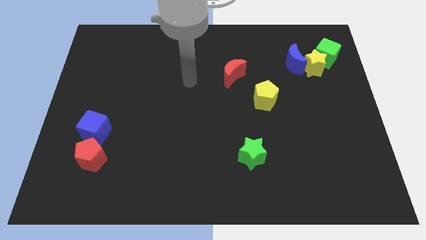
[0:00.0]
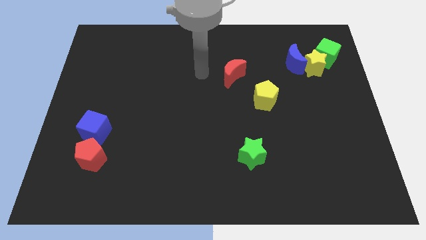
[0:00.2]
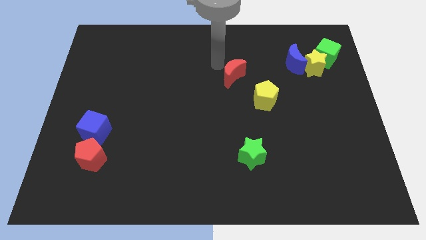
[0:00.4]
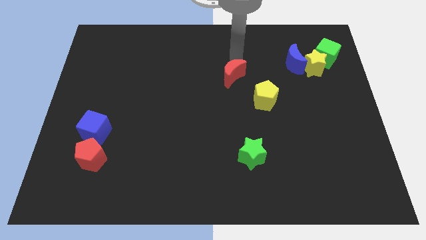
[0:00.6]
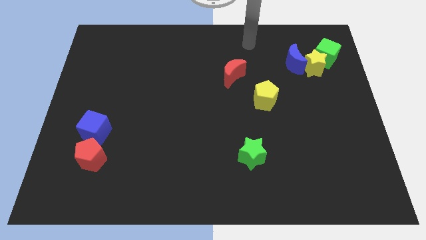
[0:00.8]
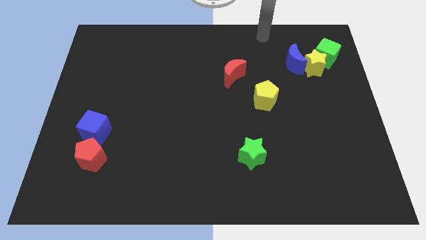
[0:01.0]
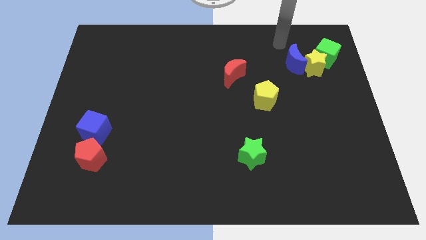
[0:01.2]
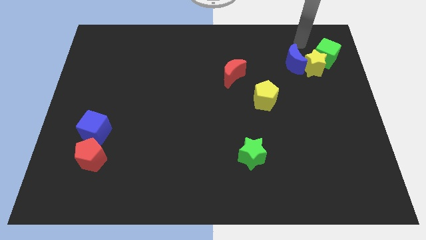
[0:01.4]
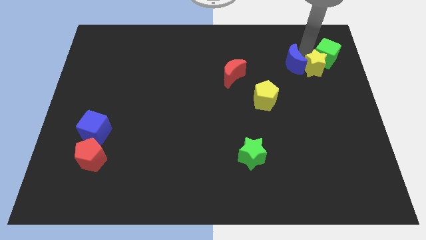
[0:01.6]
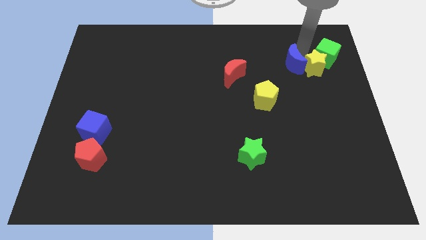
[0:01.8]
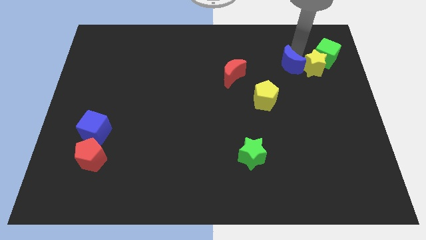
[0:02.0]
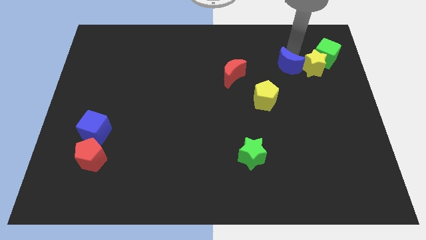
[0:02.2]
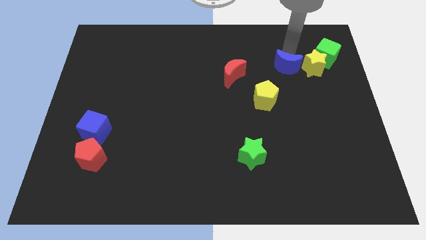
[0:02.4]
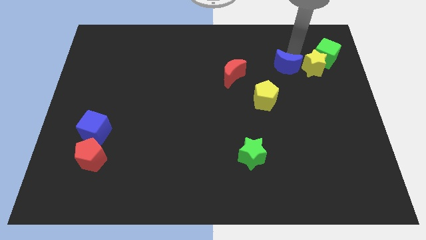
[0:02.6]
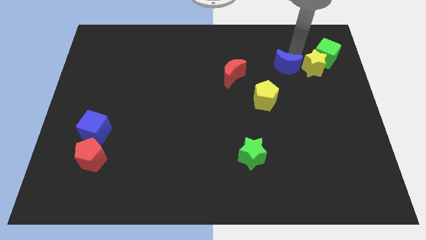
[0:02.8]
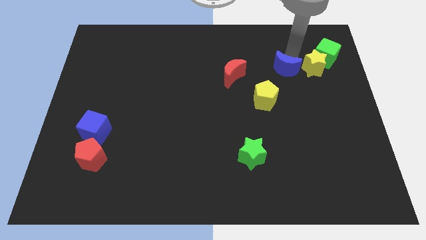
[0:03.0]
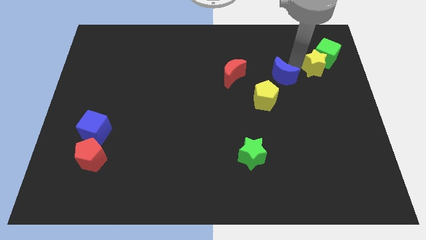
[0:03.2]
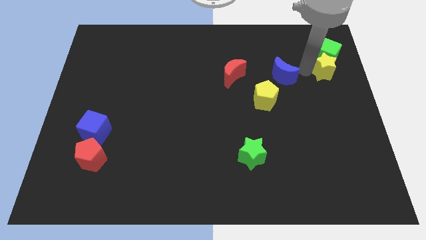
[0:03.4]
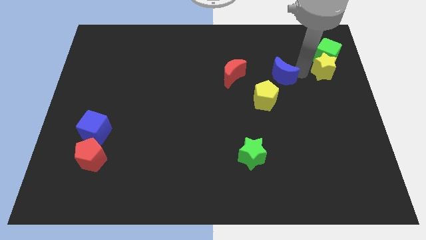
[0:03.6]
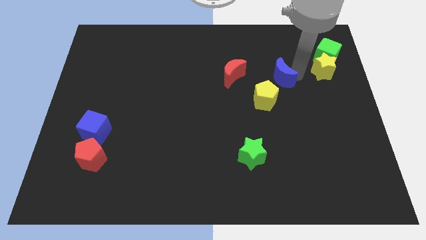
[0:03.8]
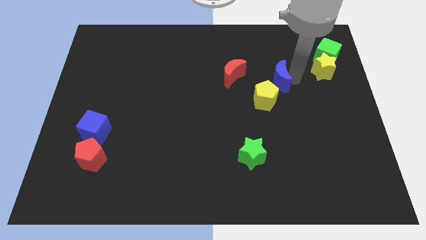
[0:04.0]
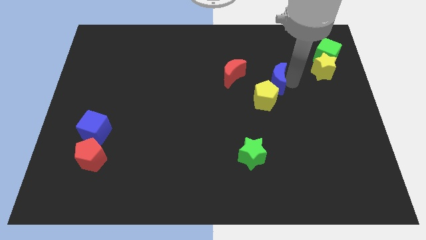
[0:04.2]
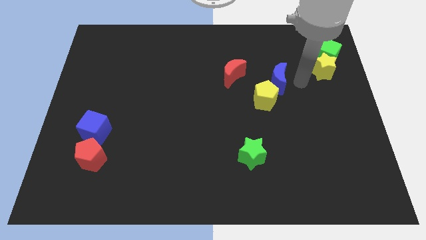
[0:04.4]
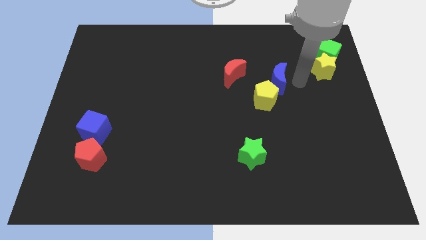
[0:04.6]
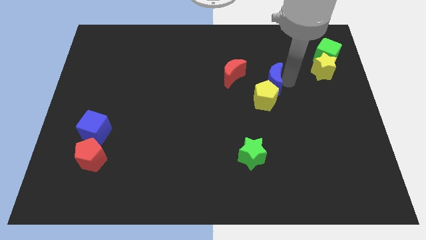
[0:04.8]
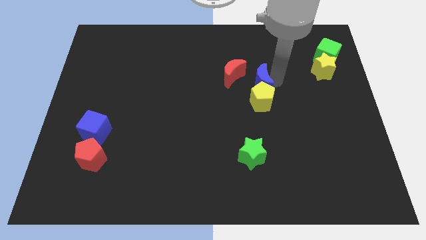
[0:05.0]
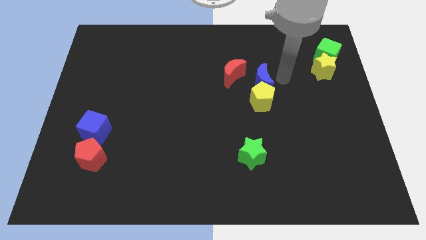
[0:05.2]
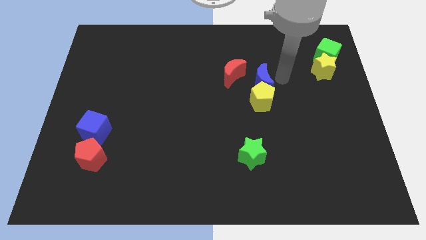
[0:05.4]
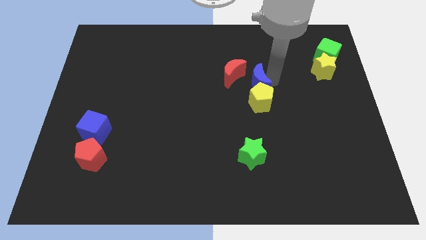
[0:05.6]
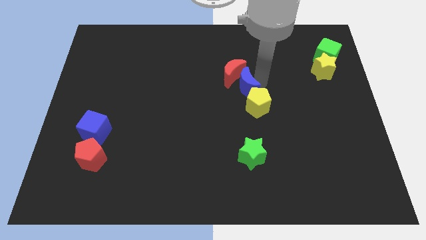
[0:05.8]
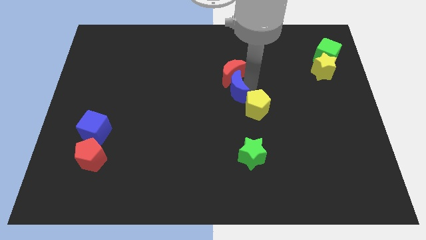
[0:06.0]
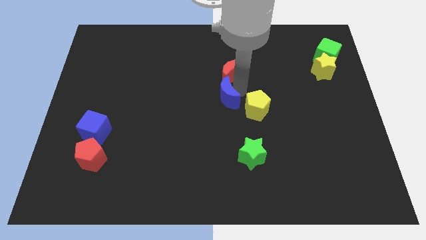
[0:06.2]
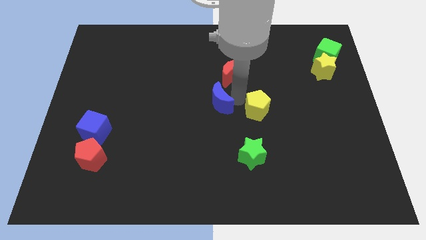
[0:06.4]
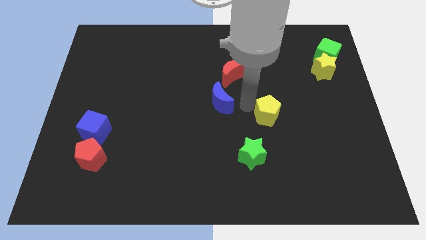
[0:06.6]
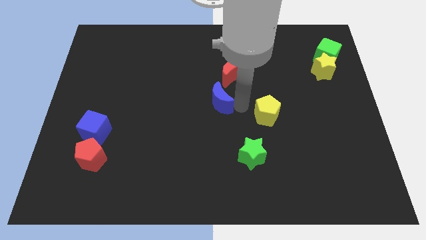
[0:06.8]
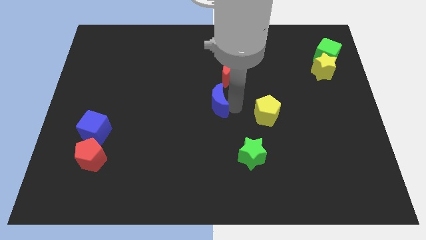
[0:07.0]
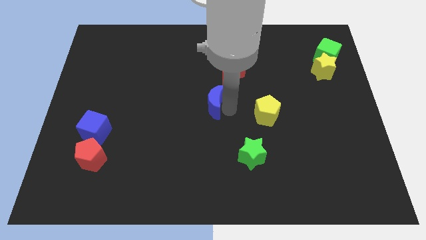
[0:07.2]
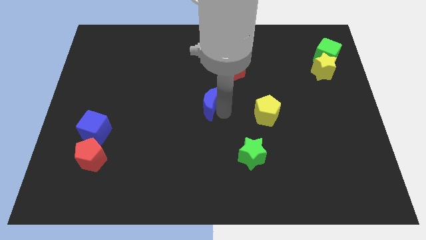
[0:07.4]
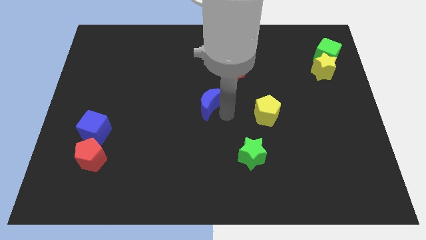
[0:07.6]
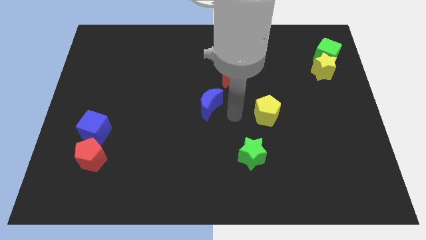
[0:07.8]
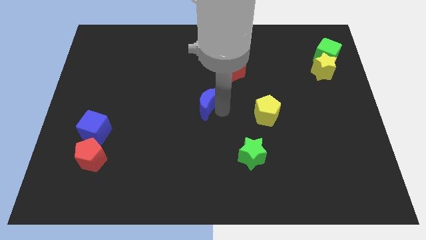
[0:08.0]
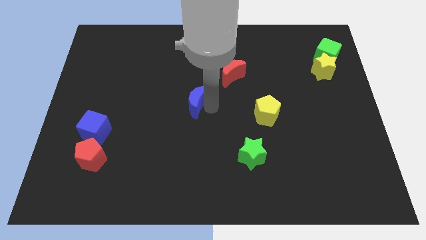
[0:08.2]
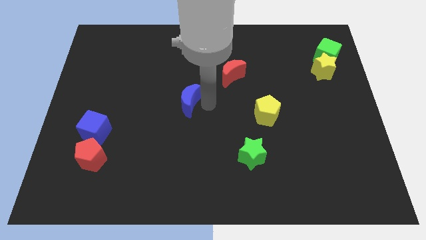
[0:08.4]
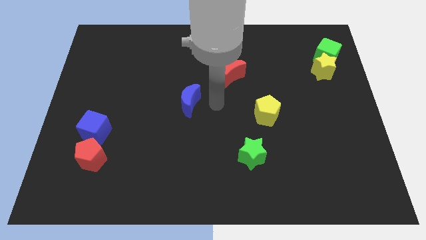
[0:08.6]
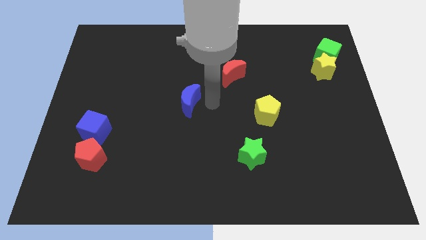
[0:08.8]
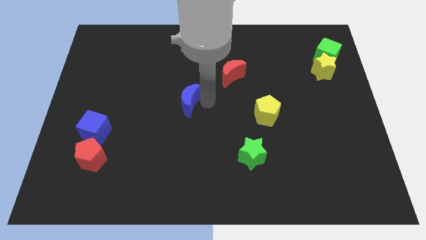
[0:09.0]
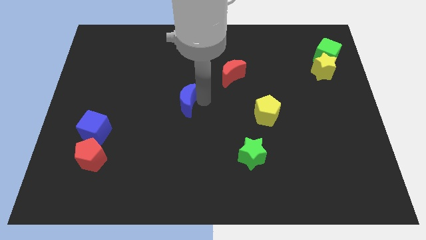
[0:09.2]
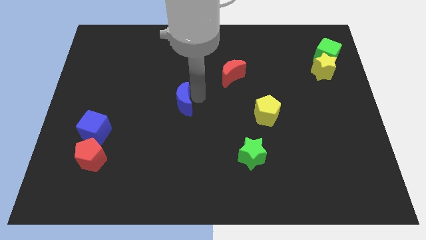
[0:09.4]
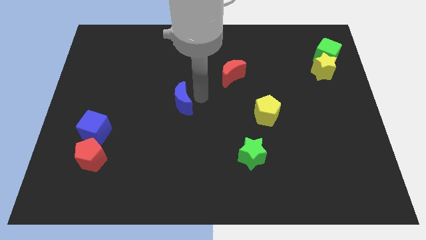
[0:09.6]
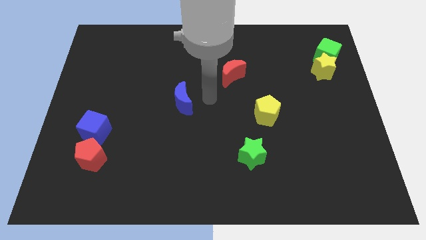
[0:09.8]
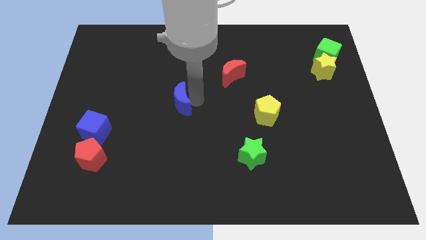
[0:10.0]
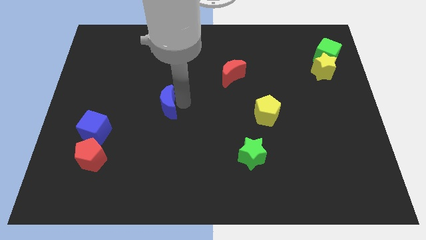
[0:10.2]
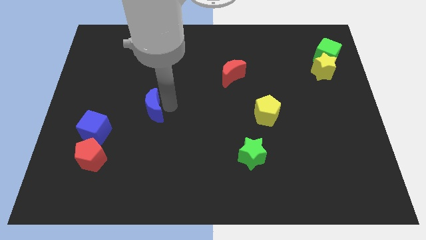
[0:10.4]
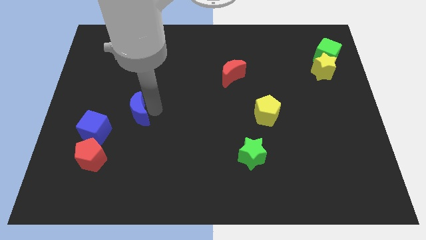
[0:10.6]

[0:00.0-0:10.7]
put the blue moon diagonally up and to the right of the blue cube

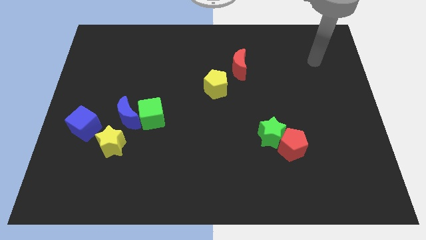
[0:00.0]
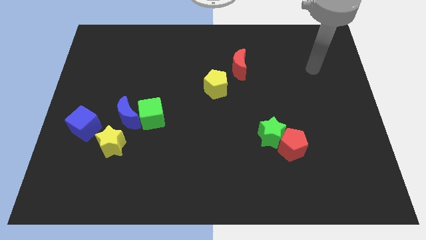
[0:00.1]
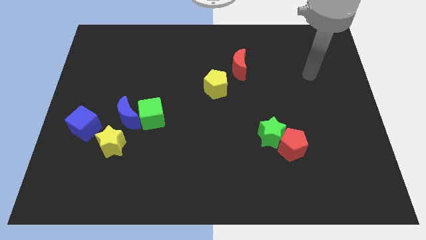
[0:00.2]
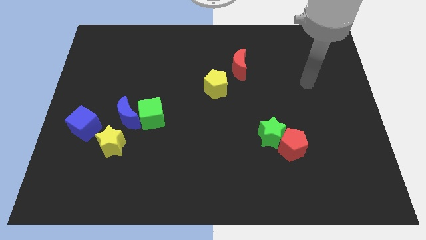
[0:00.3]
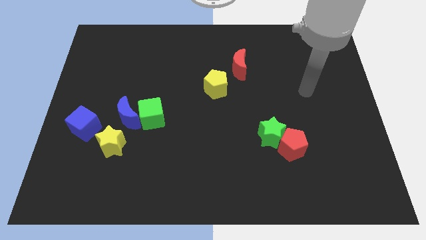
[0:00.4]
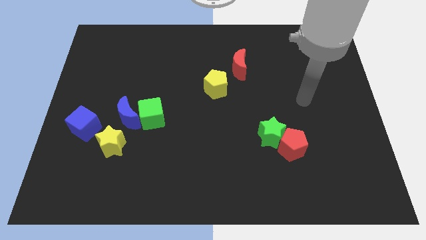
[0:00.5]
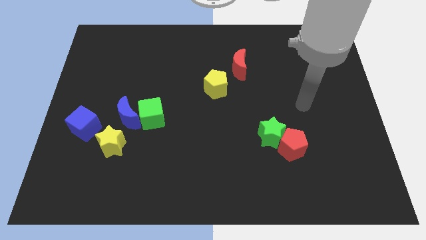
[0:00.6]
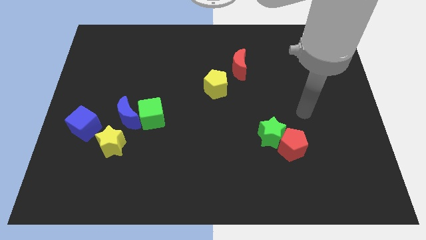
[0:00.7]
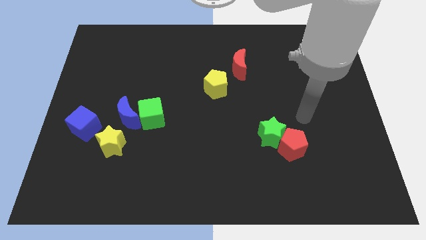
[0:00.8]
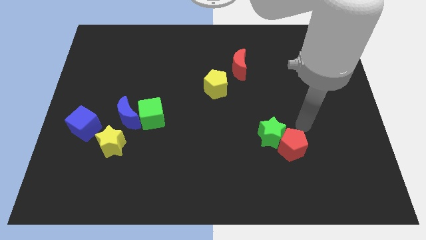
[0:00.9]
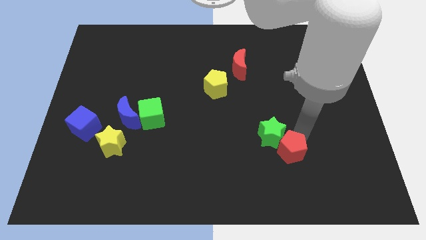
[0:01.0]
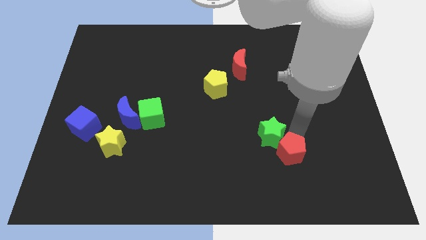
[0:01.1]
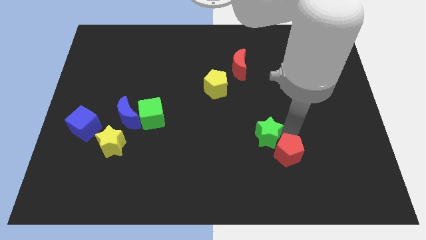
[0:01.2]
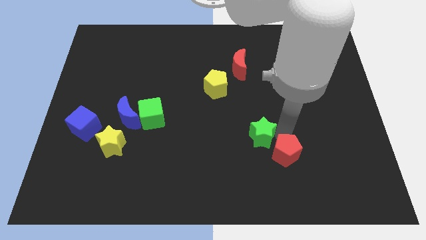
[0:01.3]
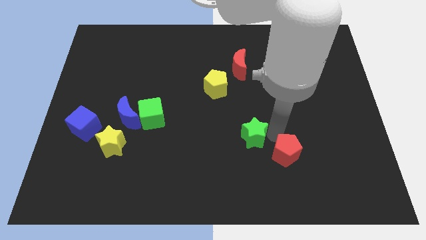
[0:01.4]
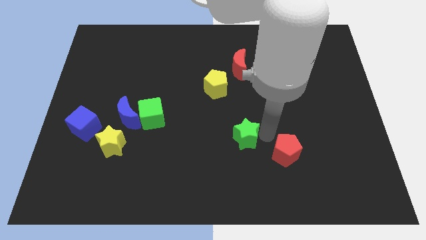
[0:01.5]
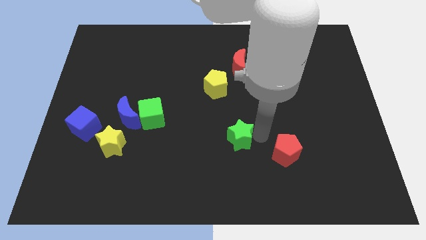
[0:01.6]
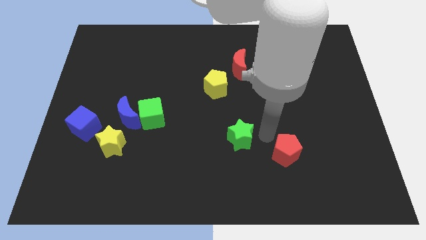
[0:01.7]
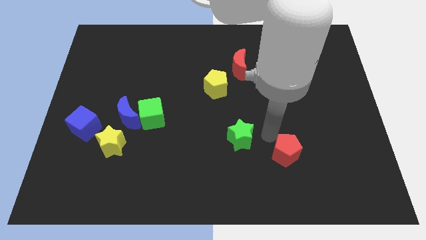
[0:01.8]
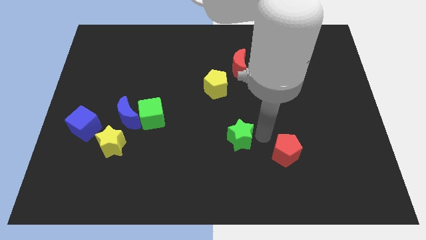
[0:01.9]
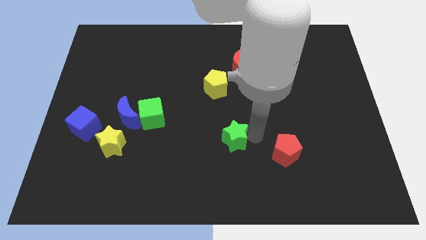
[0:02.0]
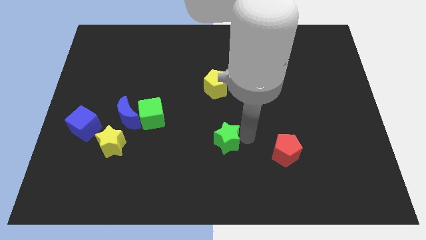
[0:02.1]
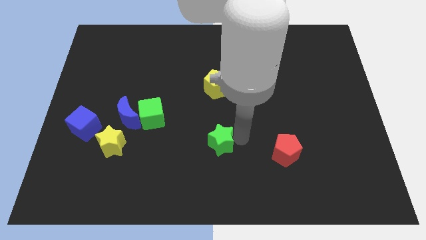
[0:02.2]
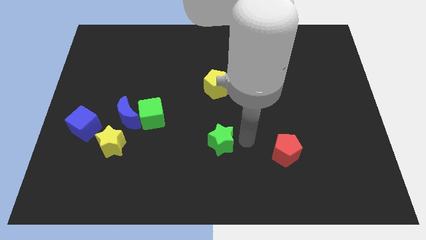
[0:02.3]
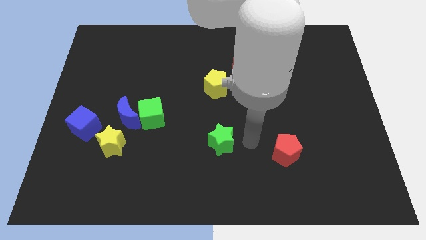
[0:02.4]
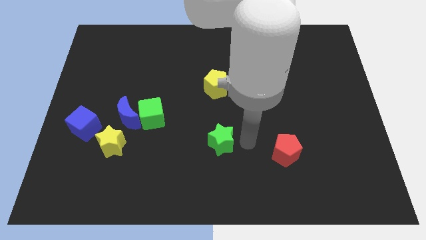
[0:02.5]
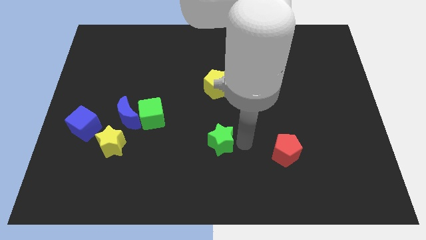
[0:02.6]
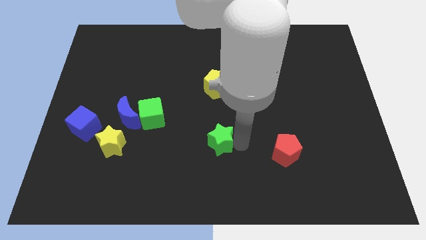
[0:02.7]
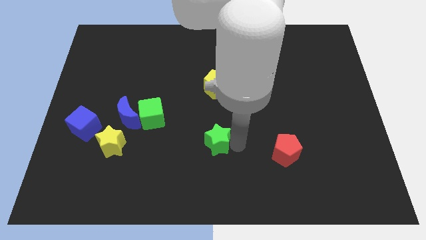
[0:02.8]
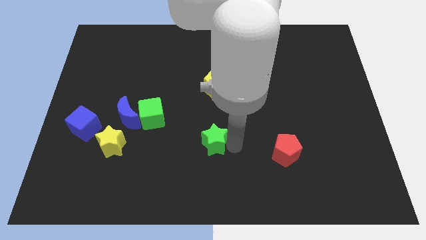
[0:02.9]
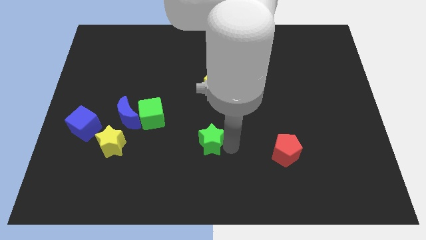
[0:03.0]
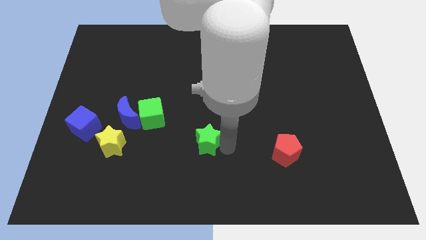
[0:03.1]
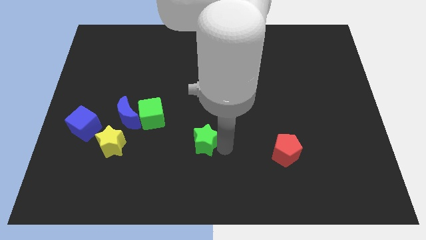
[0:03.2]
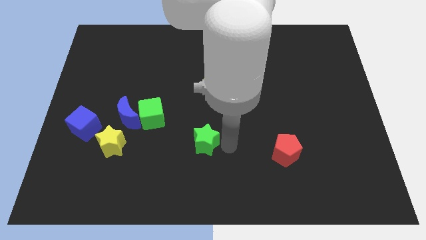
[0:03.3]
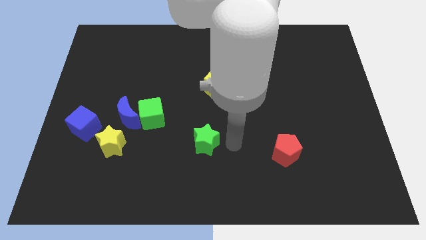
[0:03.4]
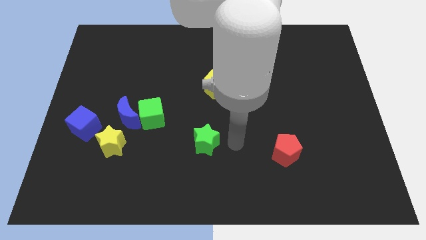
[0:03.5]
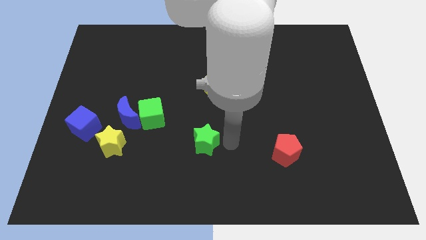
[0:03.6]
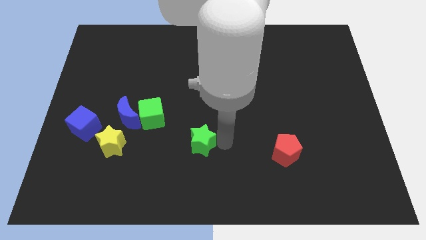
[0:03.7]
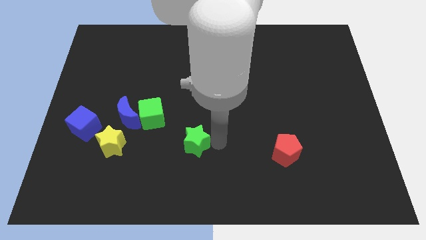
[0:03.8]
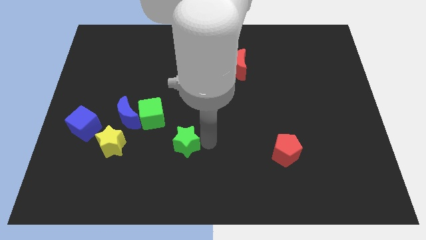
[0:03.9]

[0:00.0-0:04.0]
move the green star just right of the yellow star
